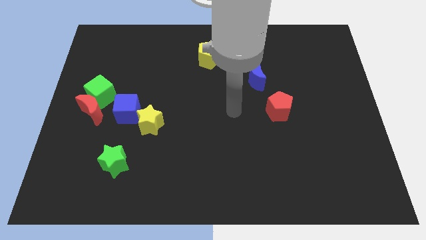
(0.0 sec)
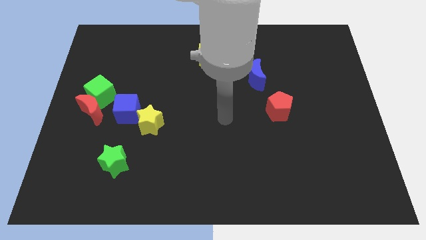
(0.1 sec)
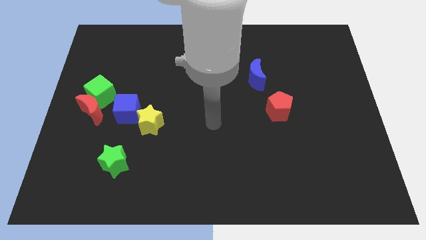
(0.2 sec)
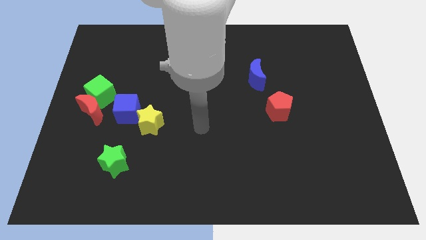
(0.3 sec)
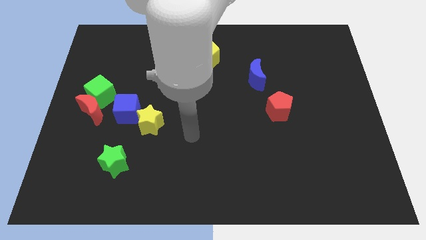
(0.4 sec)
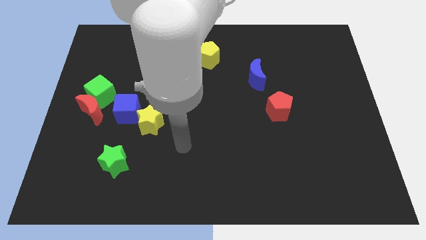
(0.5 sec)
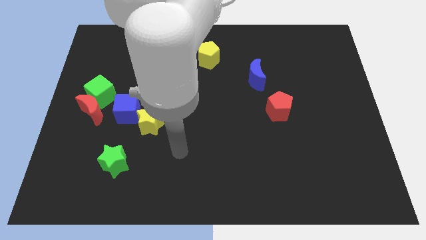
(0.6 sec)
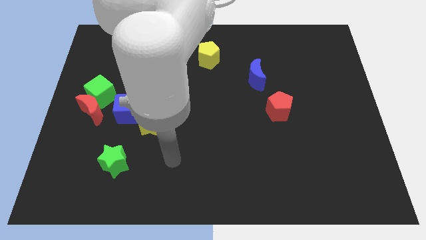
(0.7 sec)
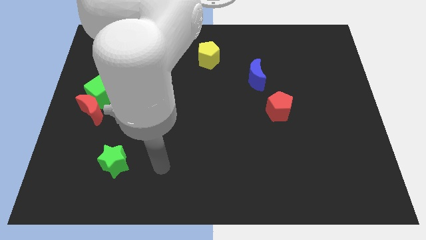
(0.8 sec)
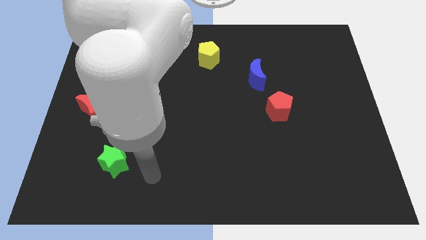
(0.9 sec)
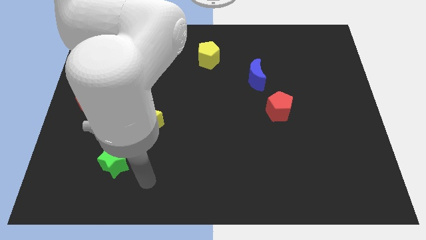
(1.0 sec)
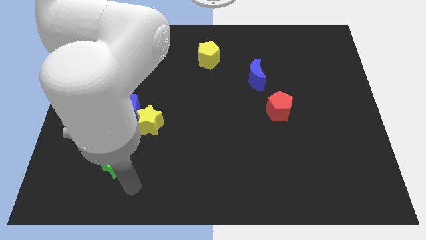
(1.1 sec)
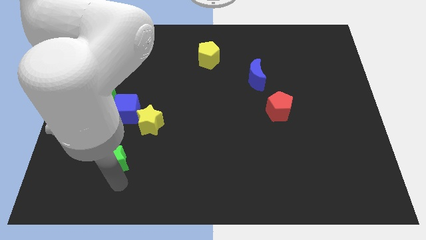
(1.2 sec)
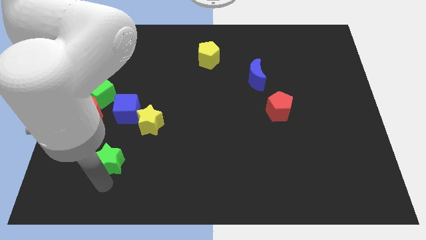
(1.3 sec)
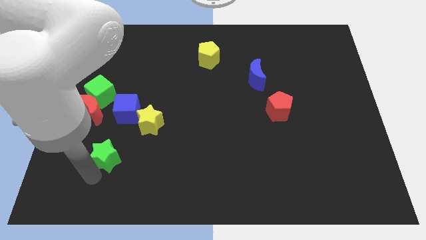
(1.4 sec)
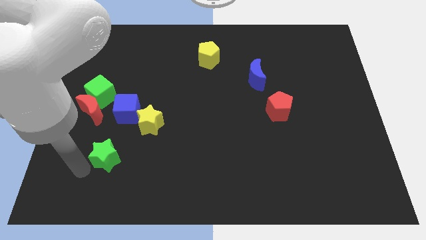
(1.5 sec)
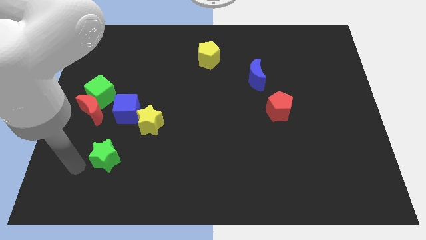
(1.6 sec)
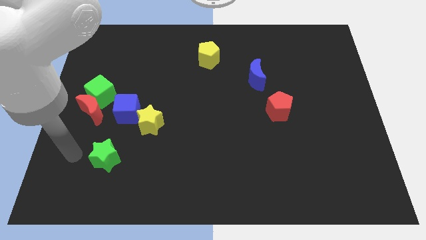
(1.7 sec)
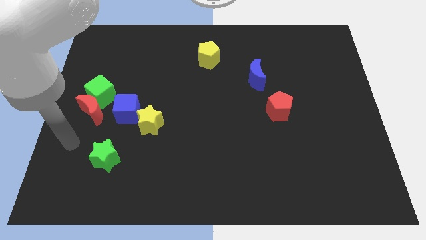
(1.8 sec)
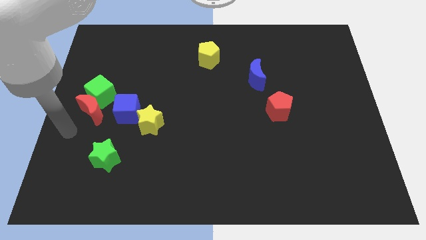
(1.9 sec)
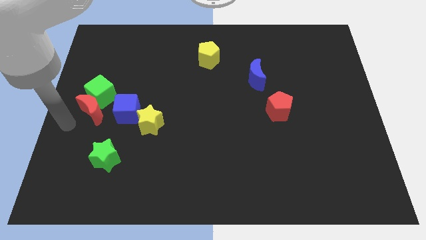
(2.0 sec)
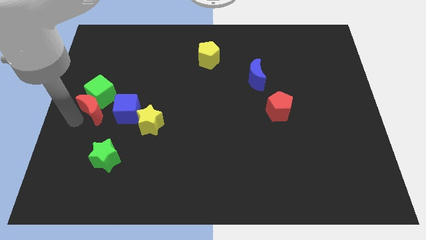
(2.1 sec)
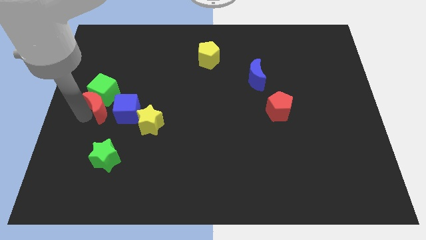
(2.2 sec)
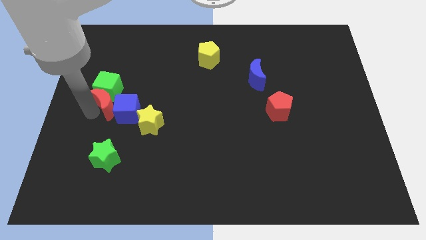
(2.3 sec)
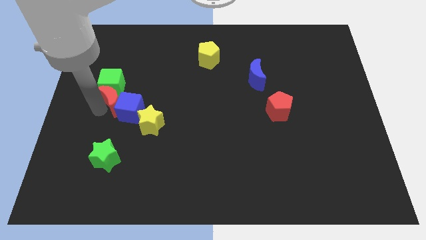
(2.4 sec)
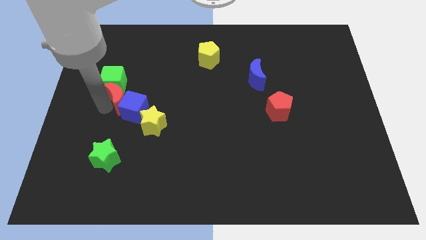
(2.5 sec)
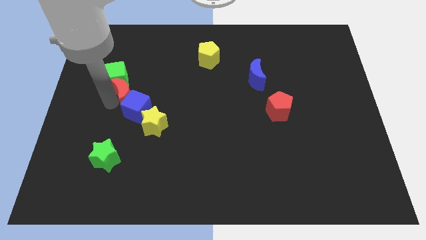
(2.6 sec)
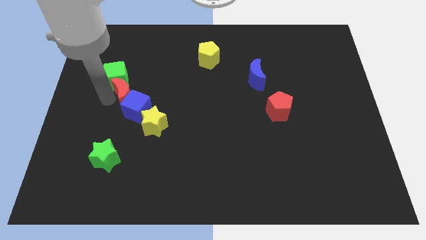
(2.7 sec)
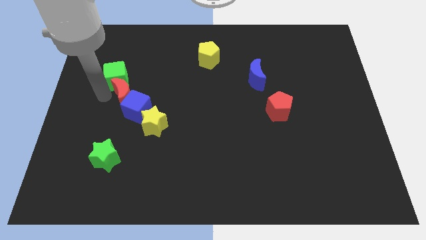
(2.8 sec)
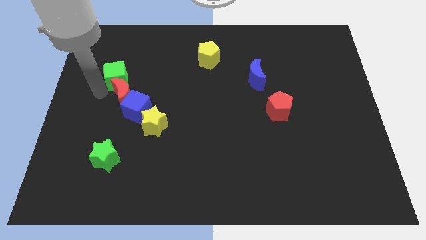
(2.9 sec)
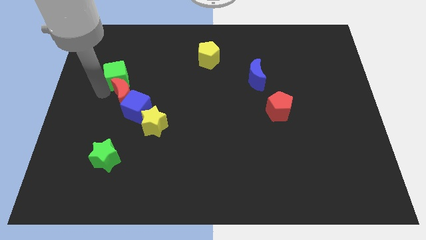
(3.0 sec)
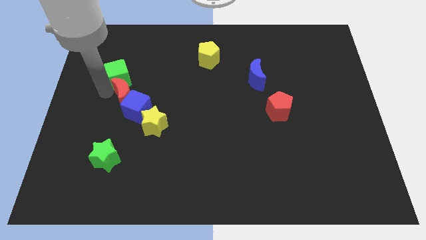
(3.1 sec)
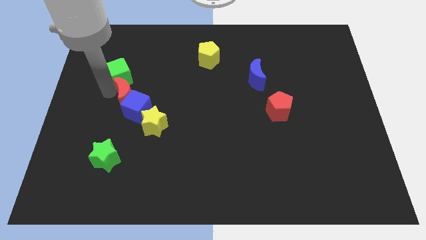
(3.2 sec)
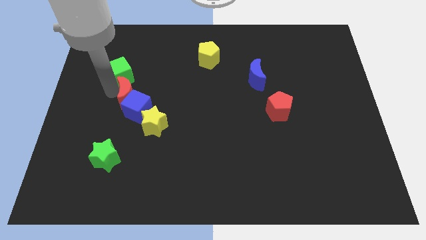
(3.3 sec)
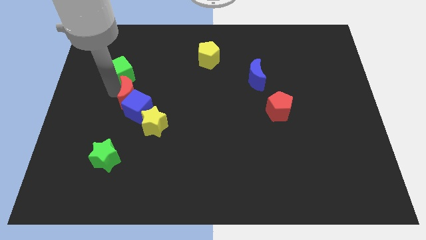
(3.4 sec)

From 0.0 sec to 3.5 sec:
push the red moon slightly right

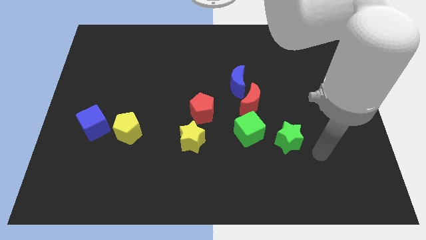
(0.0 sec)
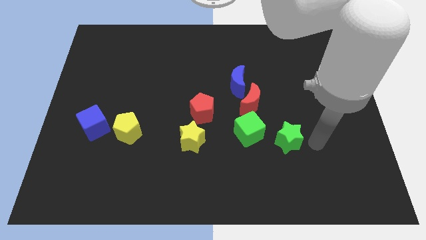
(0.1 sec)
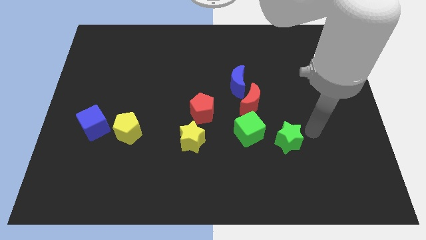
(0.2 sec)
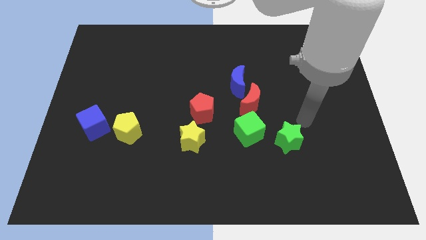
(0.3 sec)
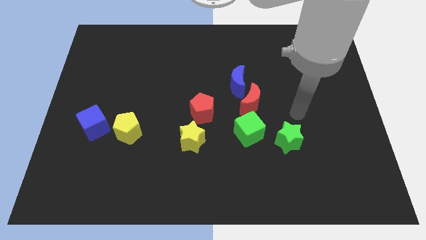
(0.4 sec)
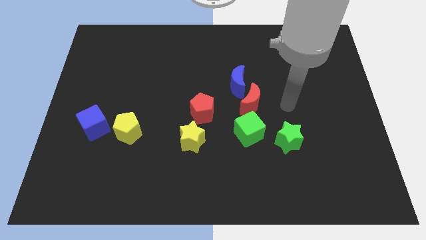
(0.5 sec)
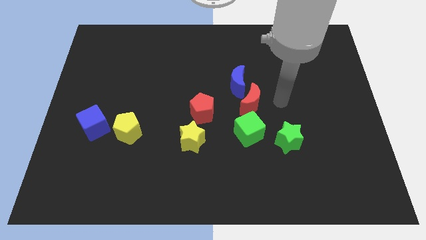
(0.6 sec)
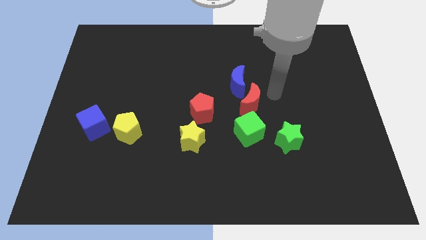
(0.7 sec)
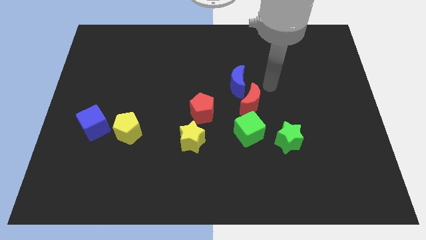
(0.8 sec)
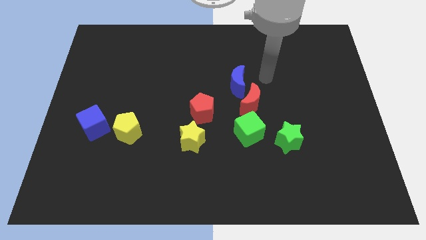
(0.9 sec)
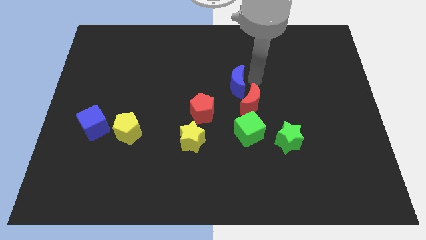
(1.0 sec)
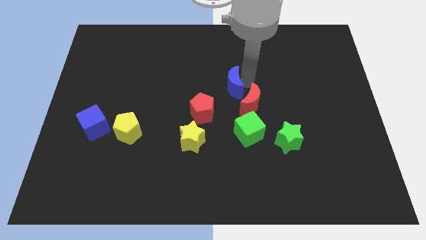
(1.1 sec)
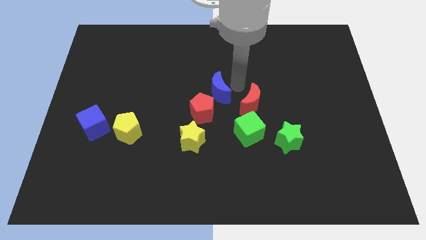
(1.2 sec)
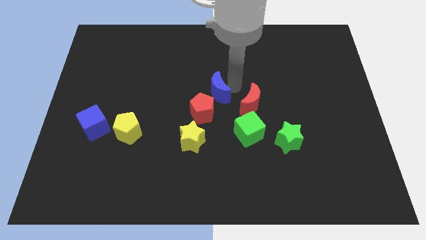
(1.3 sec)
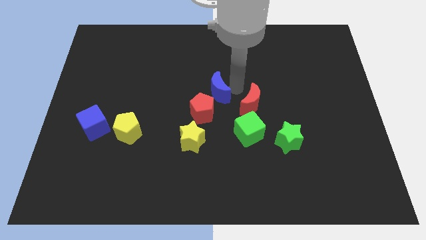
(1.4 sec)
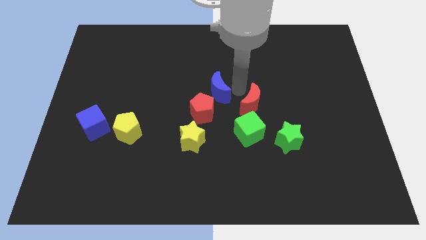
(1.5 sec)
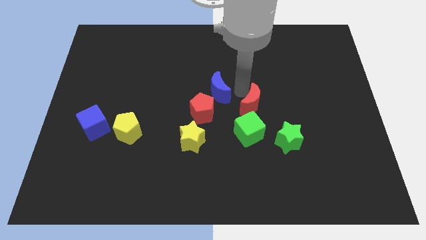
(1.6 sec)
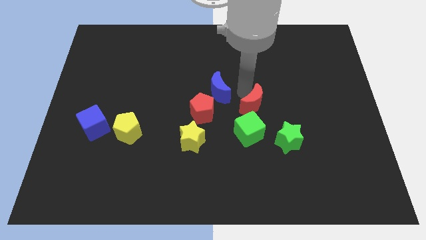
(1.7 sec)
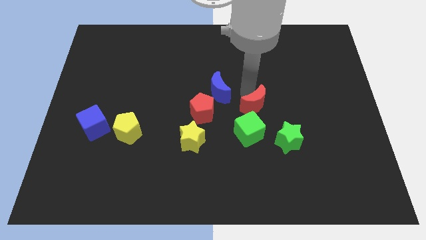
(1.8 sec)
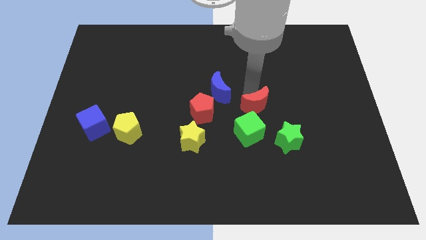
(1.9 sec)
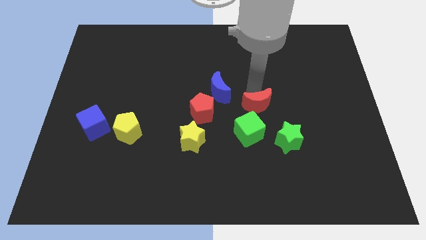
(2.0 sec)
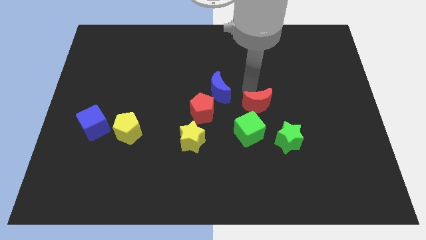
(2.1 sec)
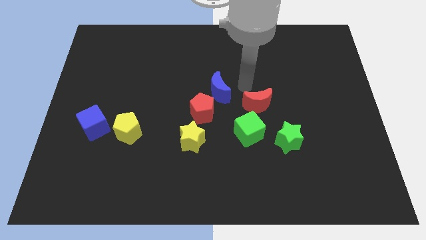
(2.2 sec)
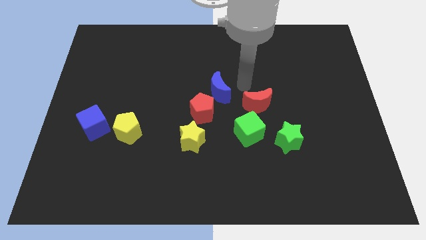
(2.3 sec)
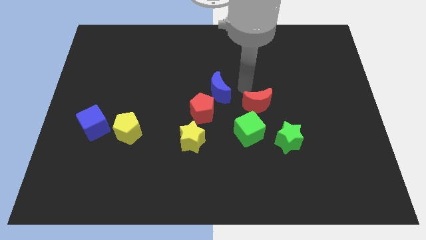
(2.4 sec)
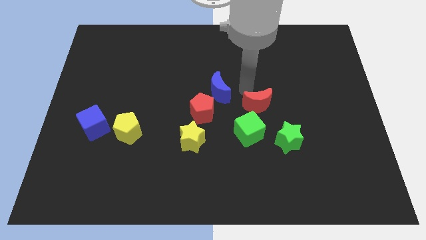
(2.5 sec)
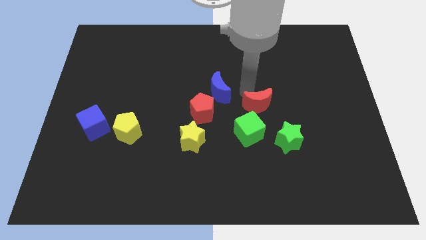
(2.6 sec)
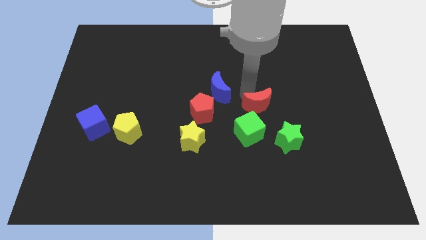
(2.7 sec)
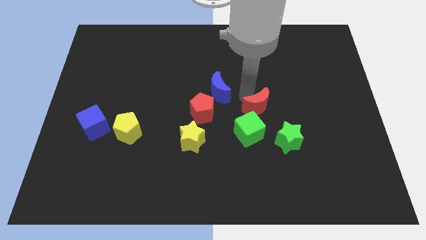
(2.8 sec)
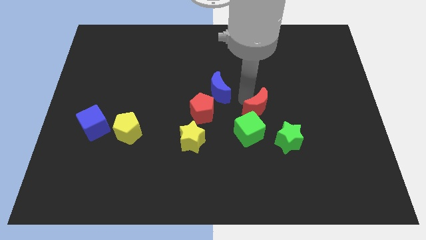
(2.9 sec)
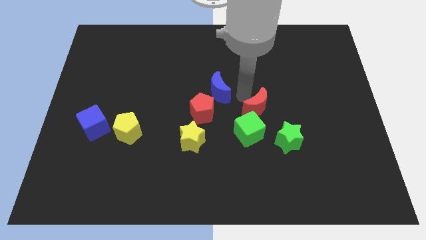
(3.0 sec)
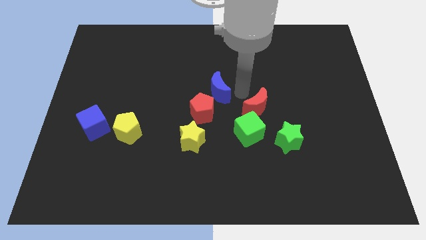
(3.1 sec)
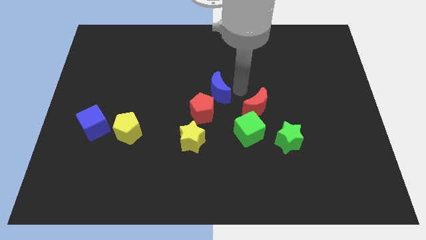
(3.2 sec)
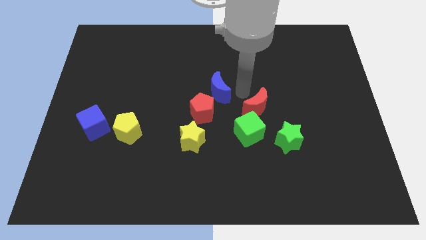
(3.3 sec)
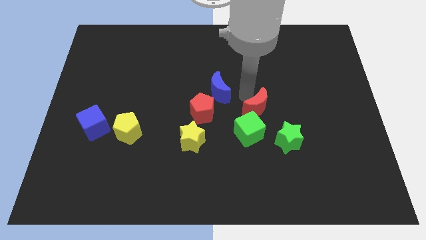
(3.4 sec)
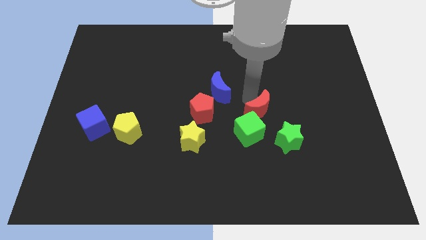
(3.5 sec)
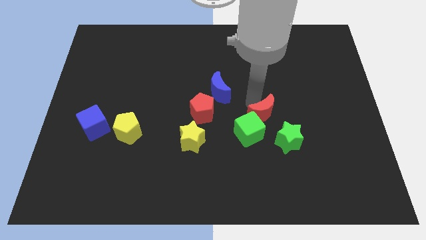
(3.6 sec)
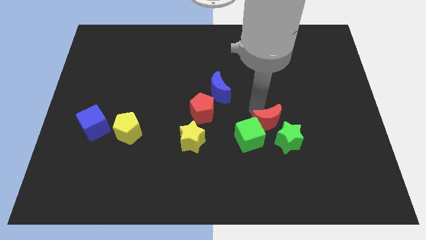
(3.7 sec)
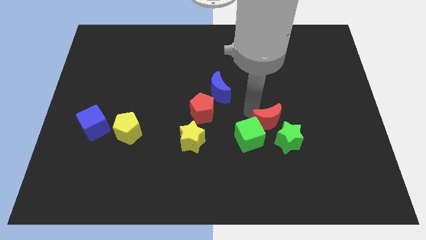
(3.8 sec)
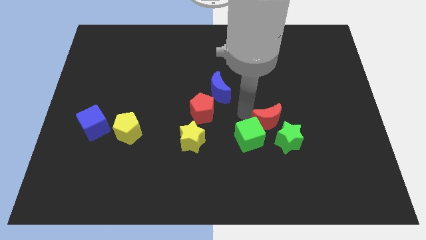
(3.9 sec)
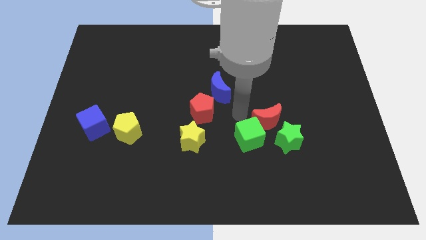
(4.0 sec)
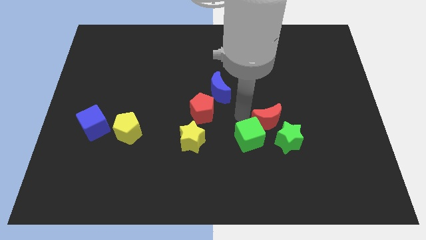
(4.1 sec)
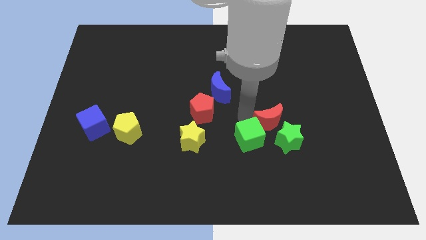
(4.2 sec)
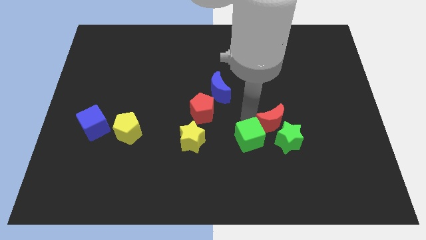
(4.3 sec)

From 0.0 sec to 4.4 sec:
slightly move the red moon downwards and then to the right
